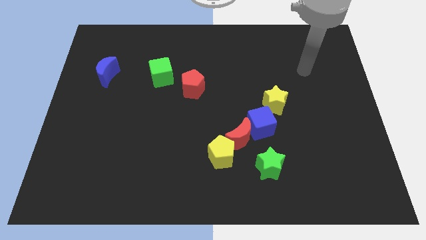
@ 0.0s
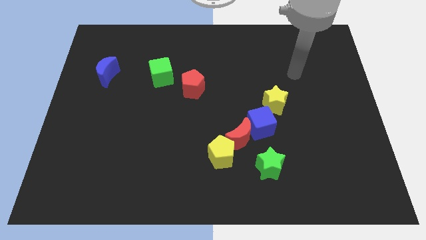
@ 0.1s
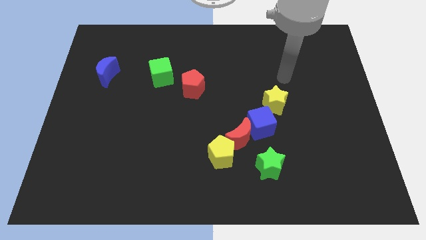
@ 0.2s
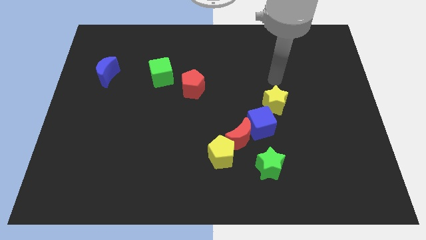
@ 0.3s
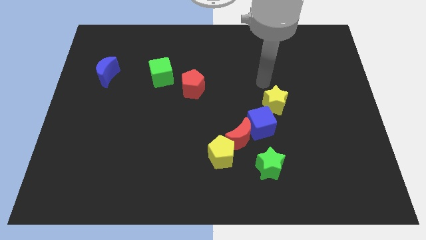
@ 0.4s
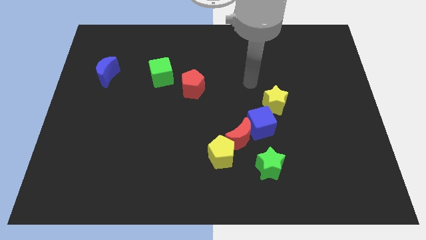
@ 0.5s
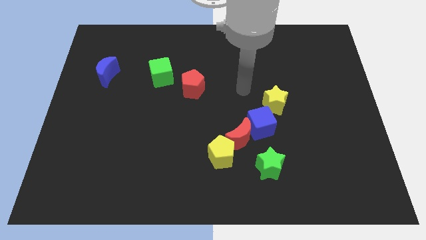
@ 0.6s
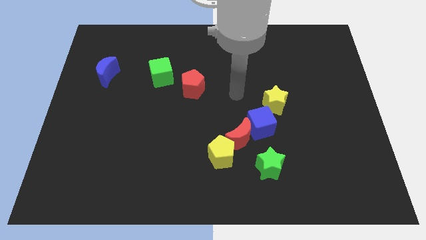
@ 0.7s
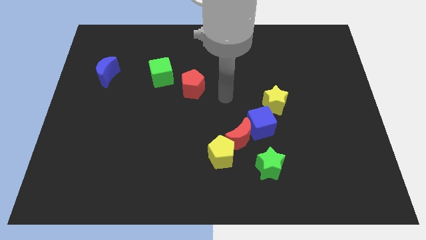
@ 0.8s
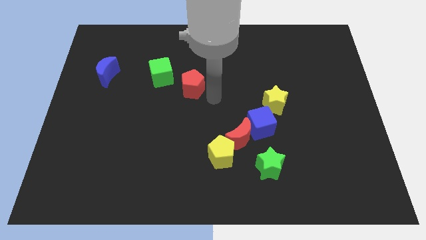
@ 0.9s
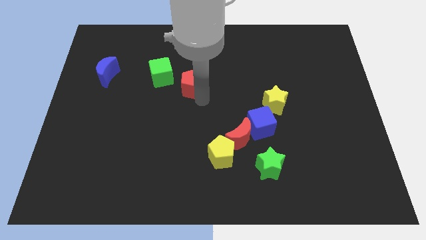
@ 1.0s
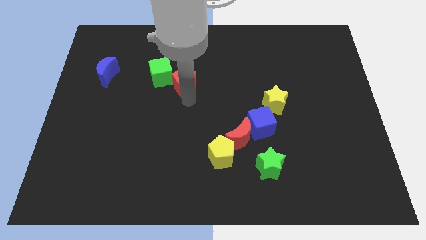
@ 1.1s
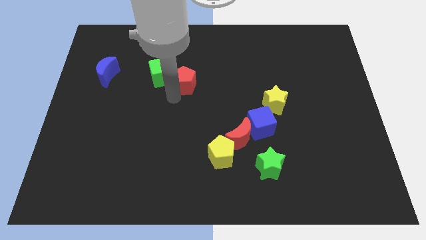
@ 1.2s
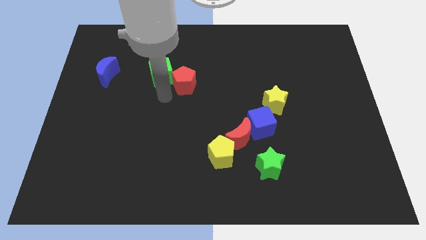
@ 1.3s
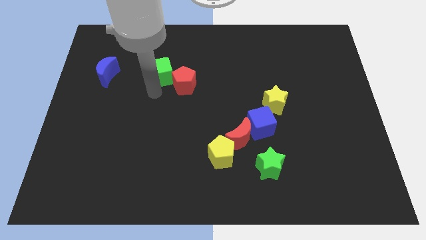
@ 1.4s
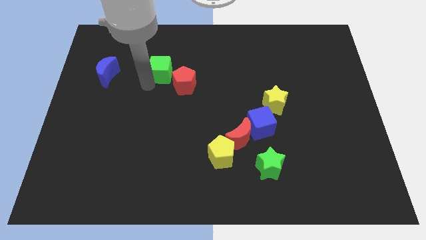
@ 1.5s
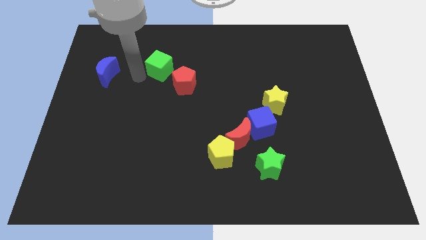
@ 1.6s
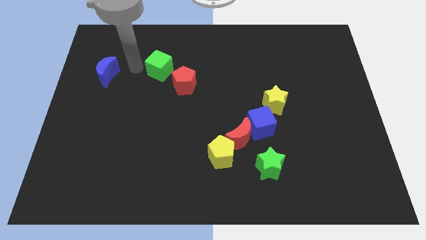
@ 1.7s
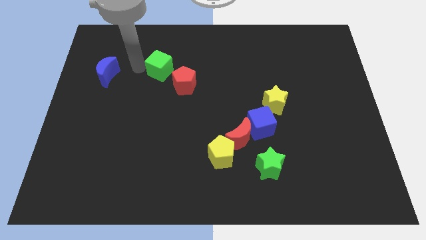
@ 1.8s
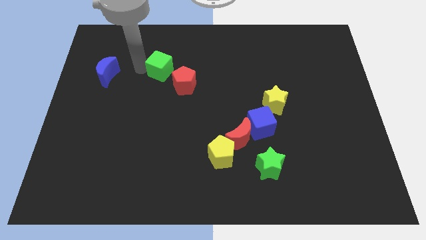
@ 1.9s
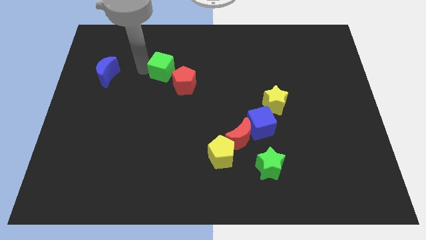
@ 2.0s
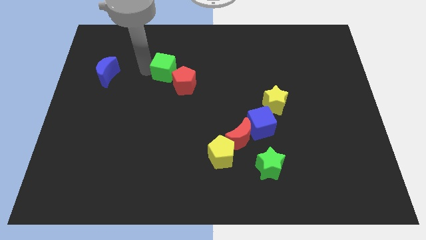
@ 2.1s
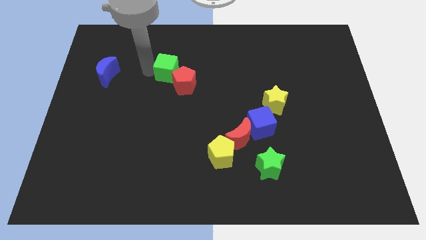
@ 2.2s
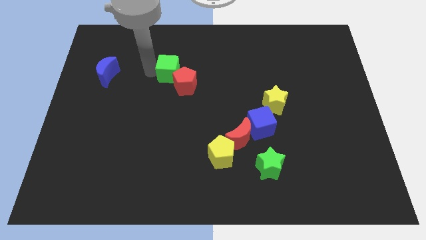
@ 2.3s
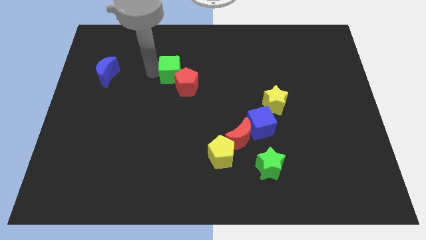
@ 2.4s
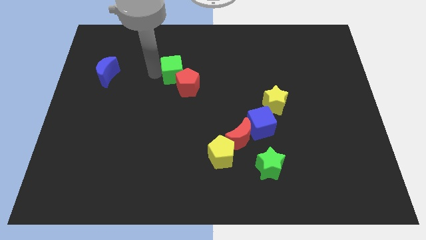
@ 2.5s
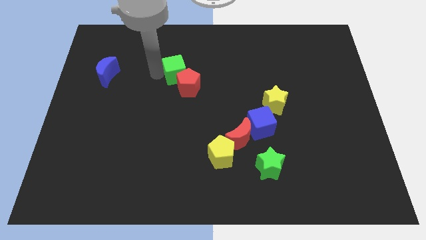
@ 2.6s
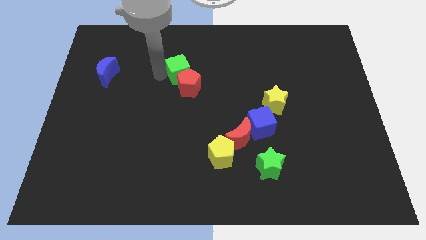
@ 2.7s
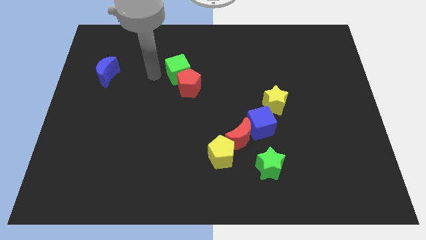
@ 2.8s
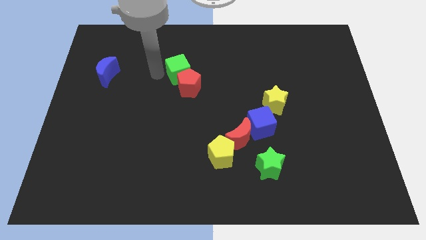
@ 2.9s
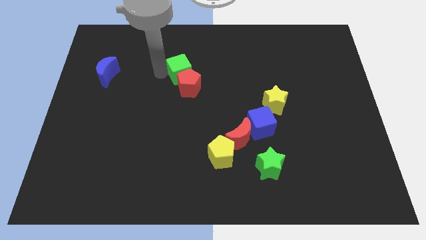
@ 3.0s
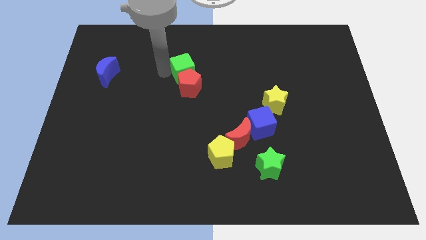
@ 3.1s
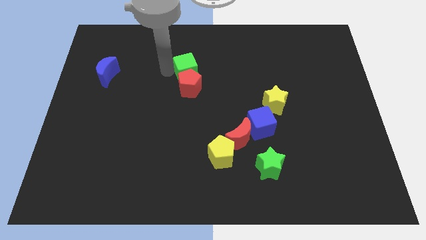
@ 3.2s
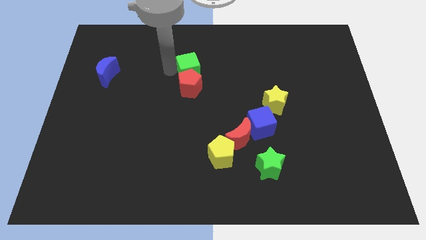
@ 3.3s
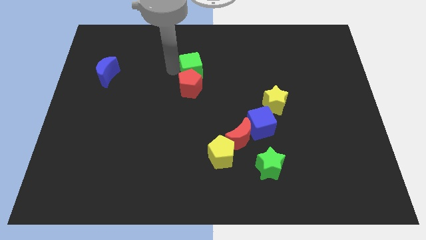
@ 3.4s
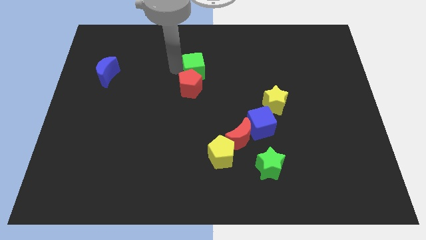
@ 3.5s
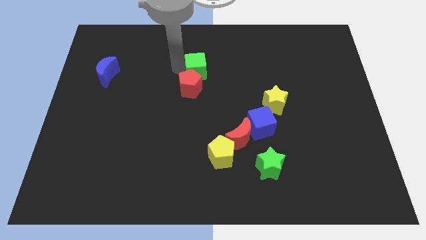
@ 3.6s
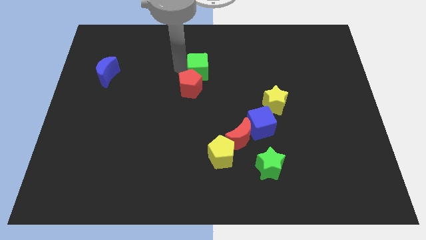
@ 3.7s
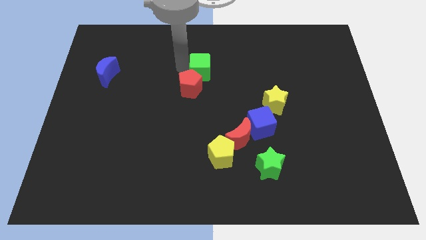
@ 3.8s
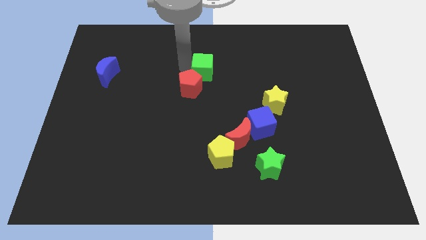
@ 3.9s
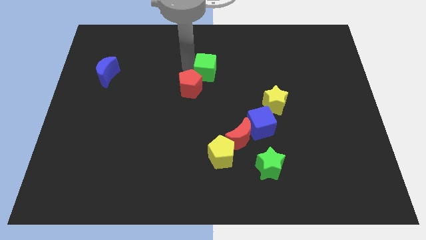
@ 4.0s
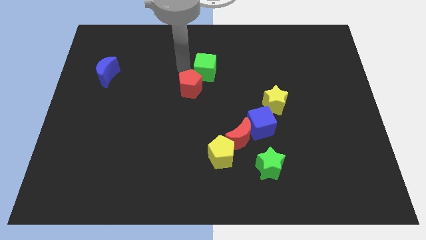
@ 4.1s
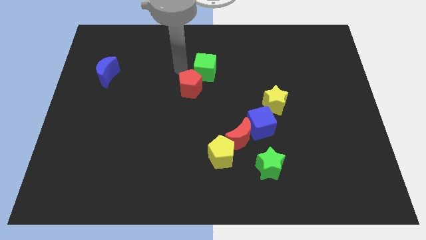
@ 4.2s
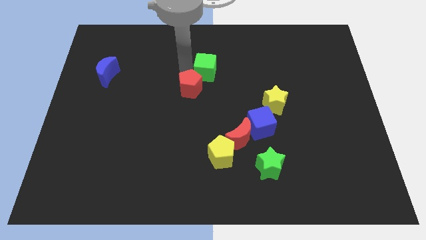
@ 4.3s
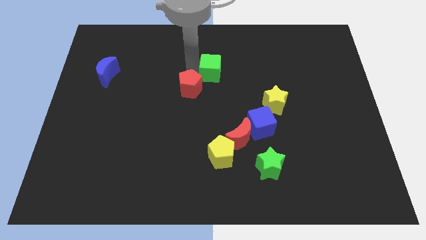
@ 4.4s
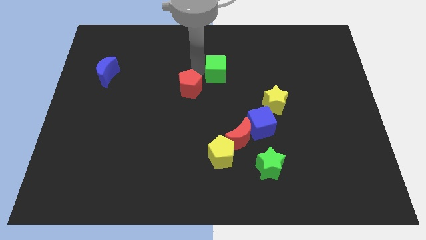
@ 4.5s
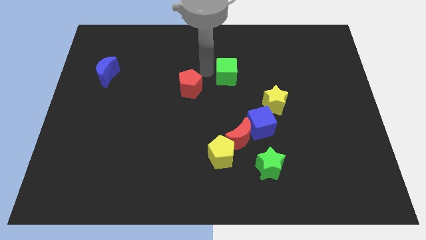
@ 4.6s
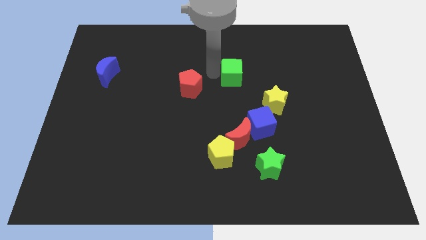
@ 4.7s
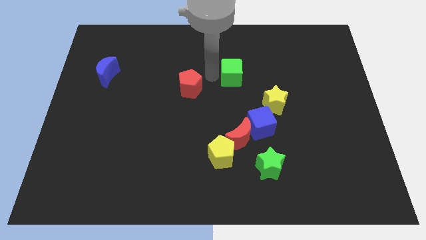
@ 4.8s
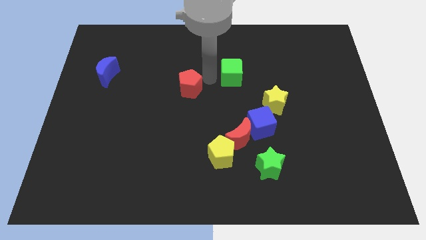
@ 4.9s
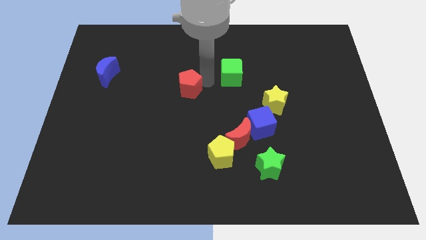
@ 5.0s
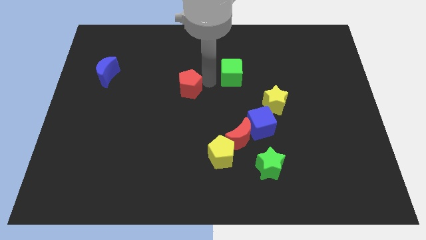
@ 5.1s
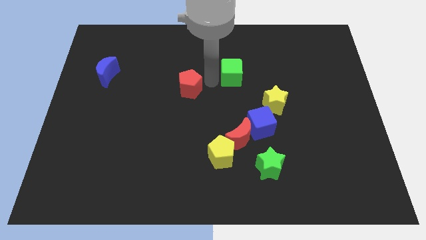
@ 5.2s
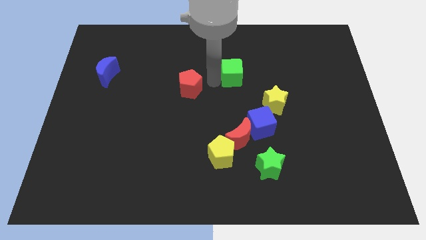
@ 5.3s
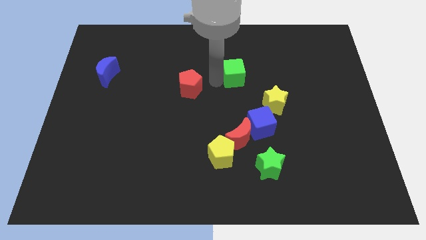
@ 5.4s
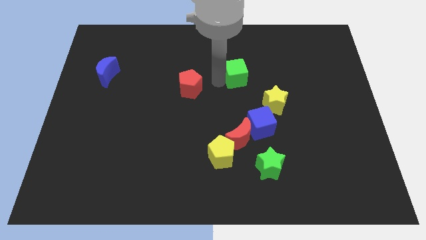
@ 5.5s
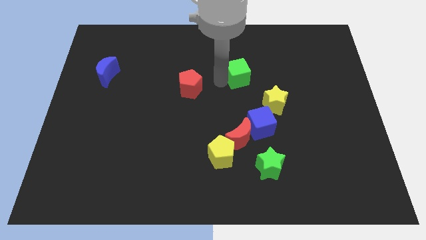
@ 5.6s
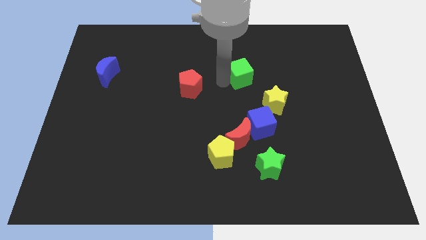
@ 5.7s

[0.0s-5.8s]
push the green cube right

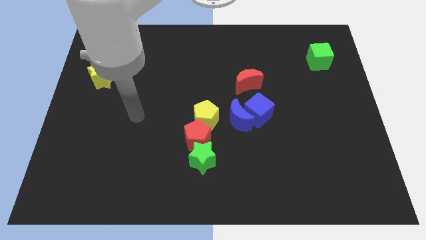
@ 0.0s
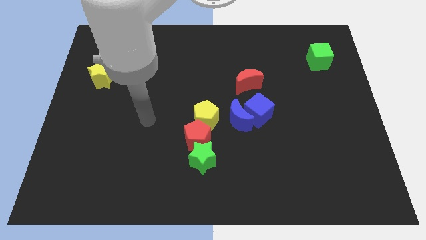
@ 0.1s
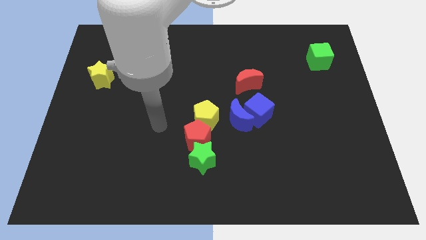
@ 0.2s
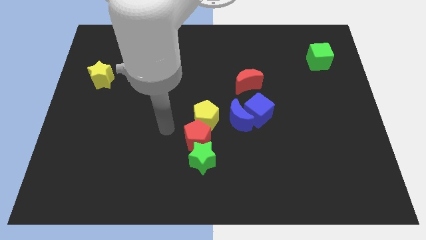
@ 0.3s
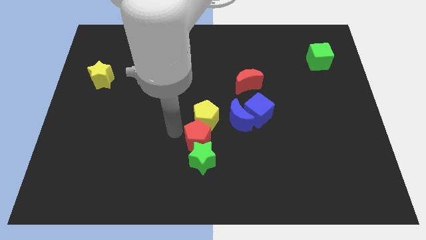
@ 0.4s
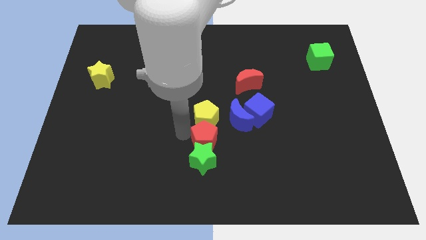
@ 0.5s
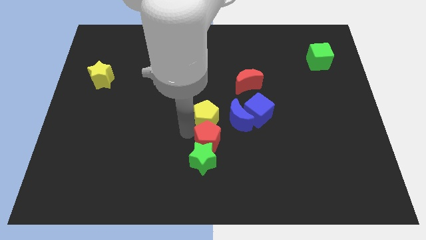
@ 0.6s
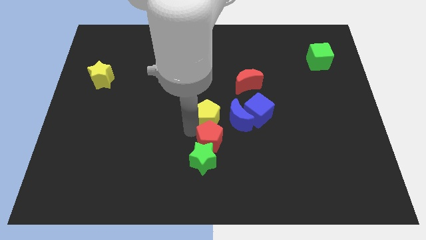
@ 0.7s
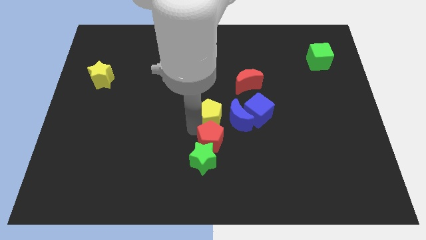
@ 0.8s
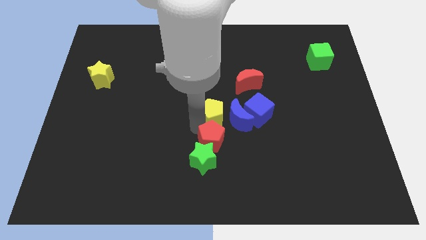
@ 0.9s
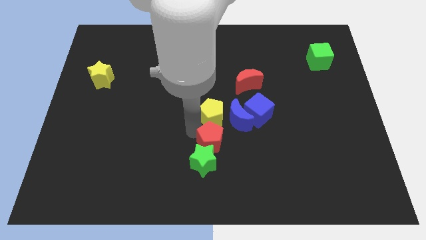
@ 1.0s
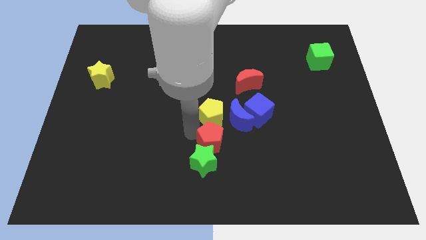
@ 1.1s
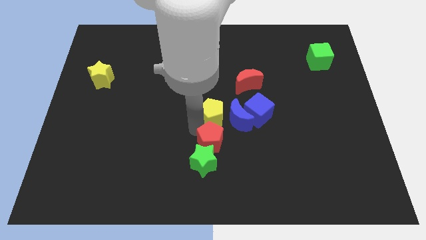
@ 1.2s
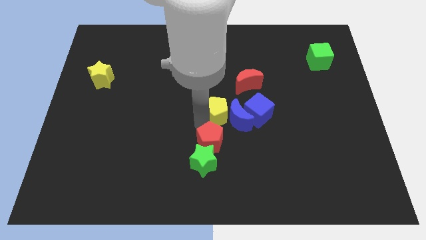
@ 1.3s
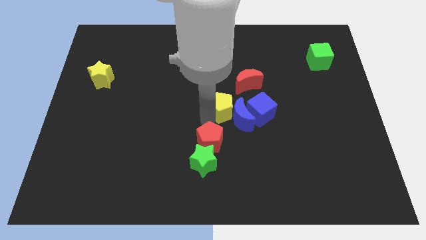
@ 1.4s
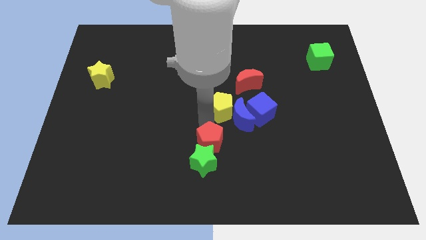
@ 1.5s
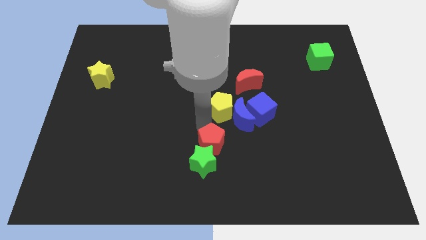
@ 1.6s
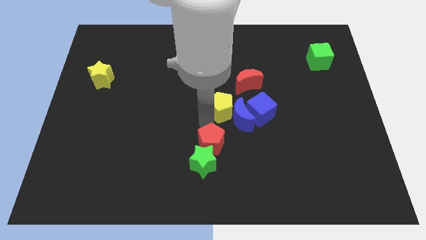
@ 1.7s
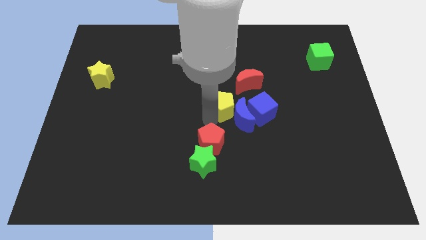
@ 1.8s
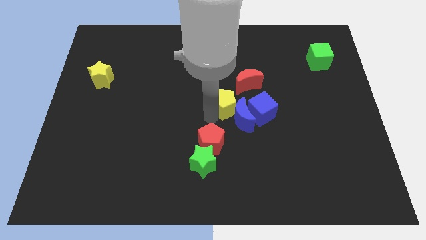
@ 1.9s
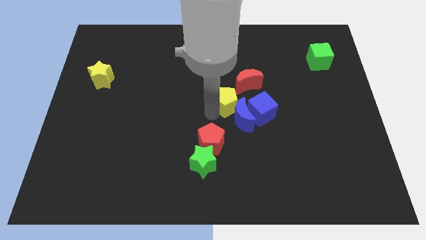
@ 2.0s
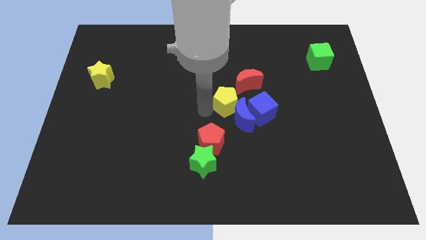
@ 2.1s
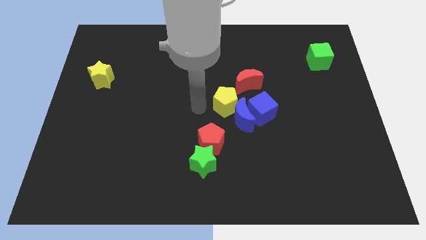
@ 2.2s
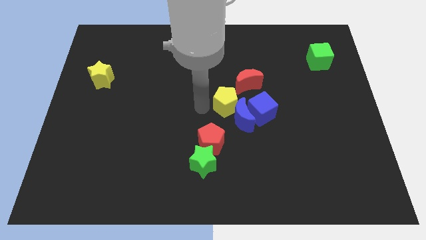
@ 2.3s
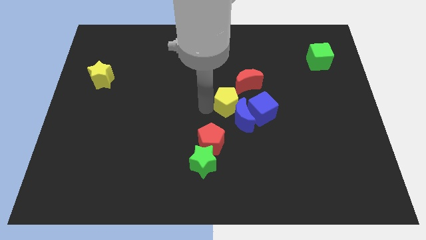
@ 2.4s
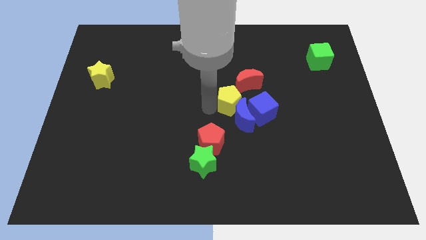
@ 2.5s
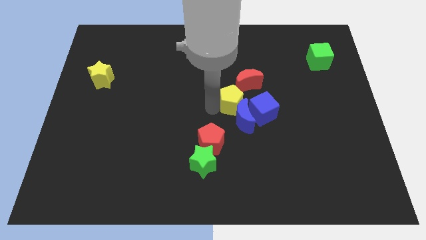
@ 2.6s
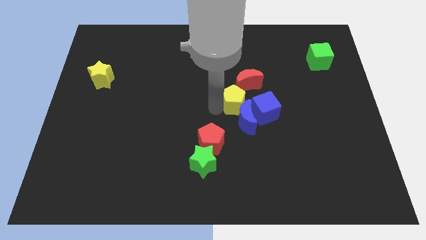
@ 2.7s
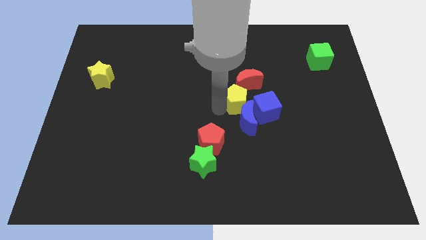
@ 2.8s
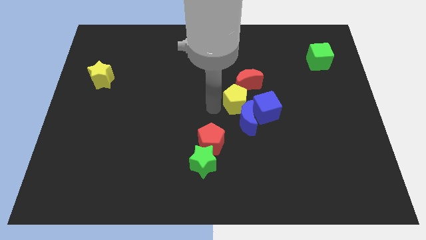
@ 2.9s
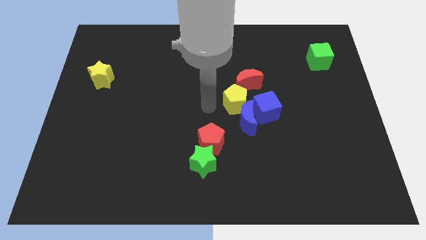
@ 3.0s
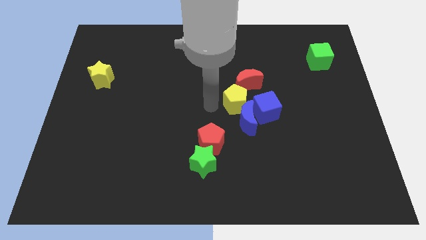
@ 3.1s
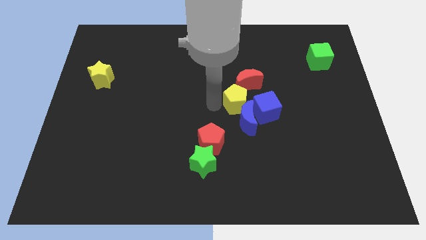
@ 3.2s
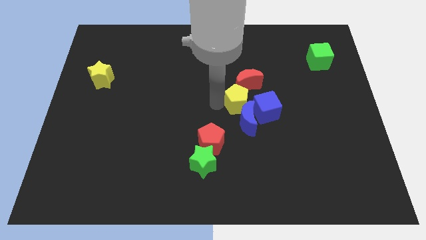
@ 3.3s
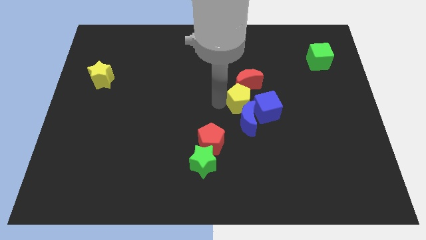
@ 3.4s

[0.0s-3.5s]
slide the yellow pentagon right a bit
